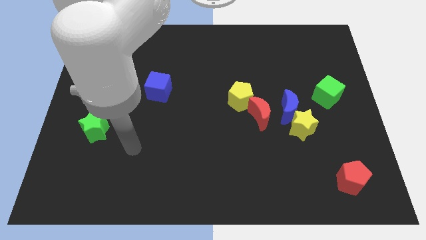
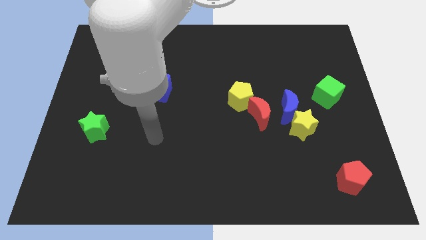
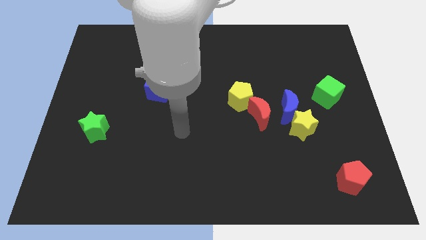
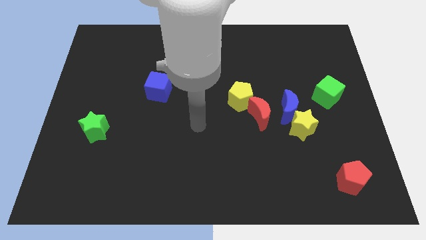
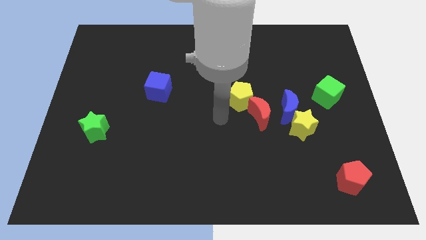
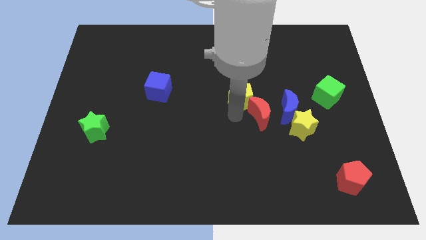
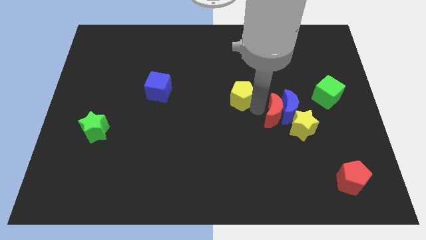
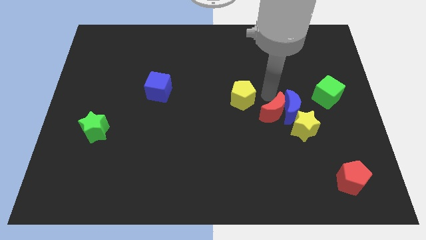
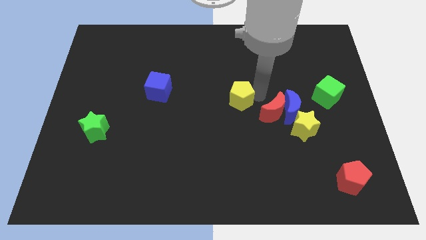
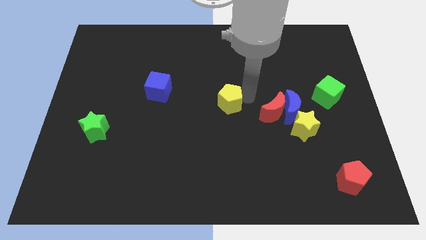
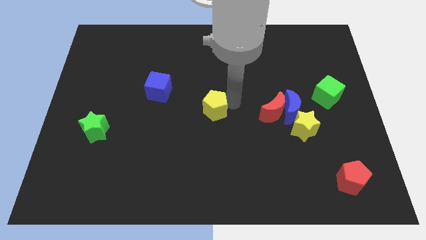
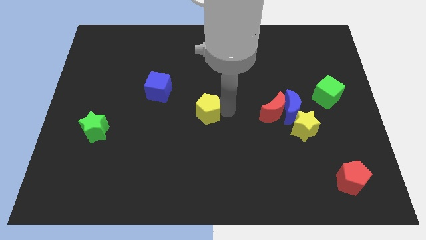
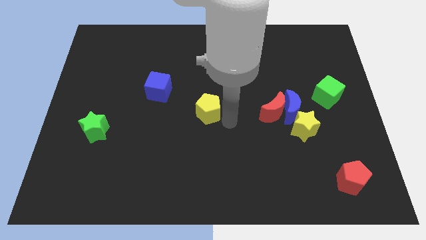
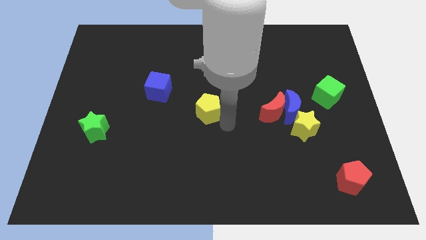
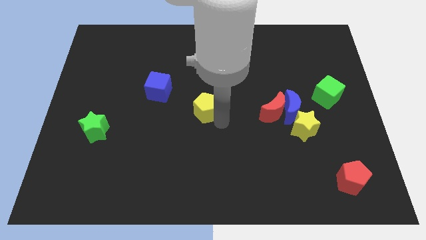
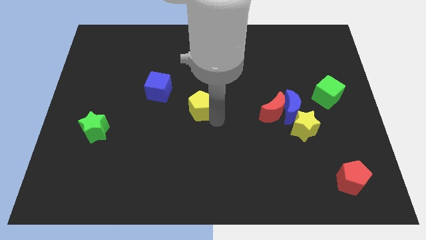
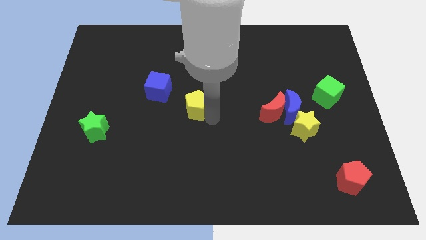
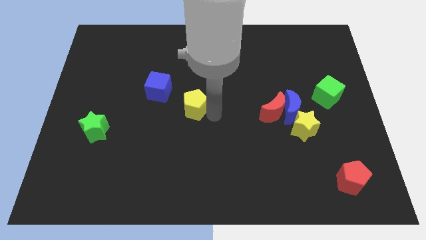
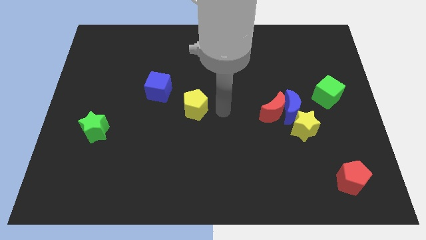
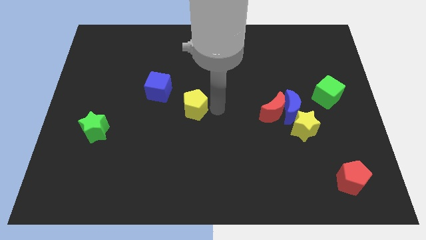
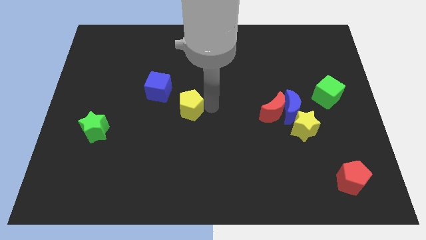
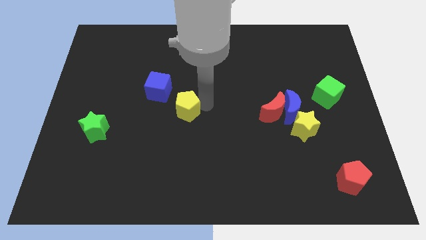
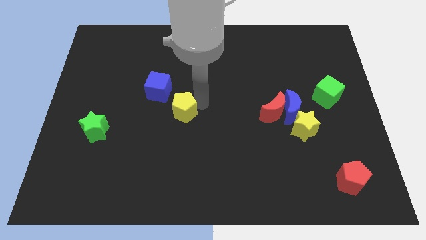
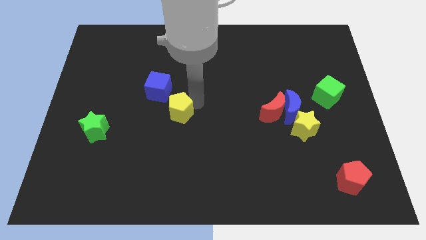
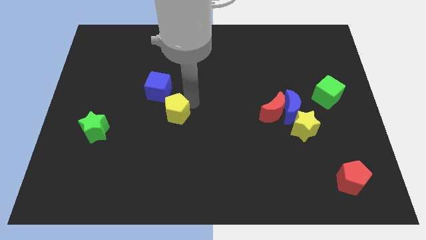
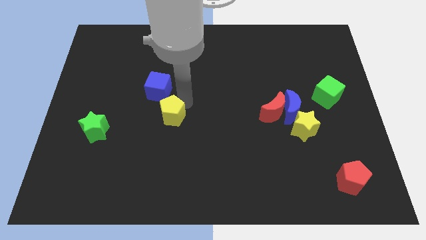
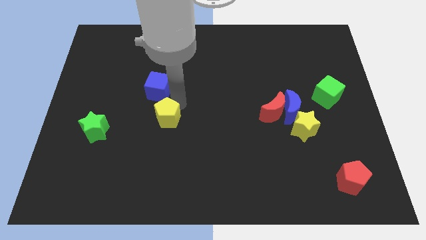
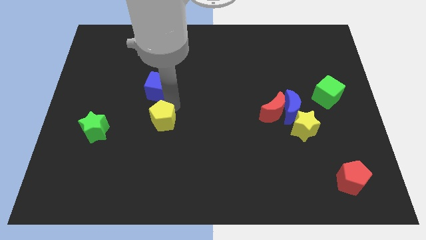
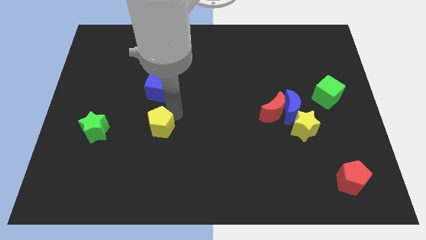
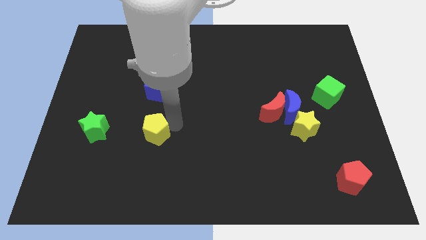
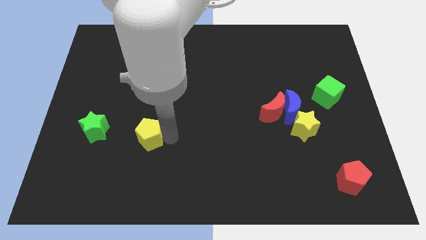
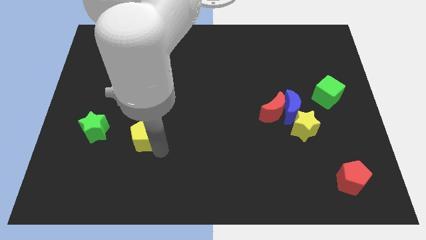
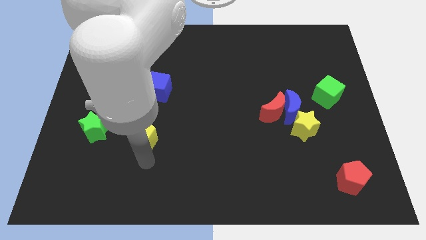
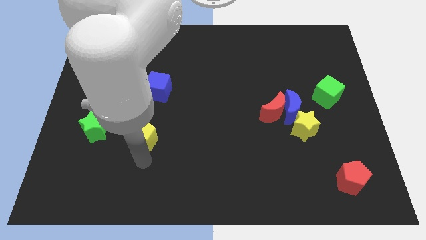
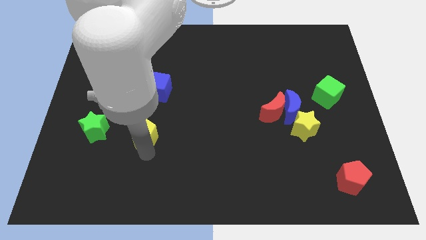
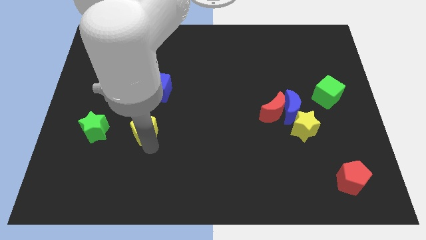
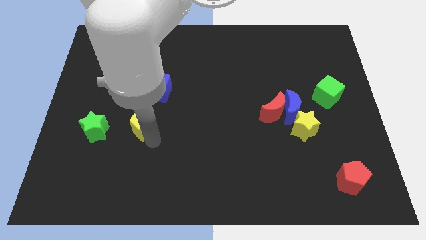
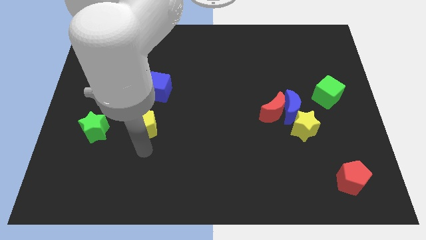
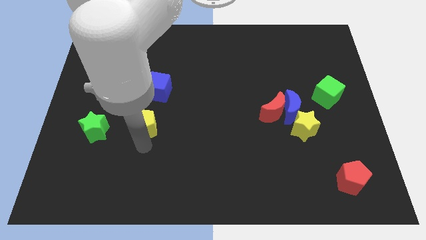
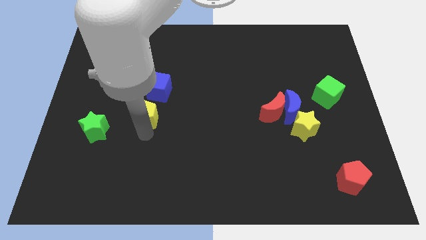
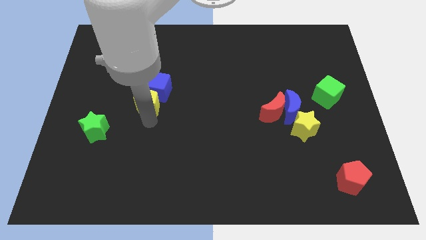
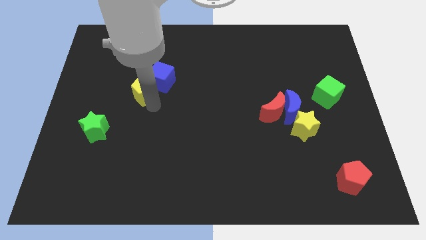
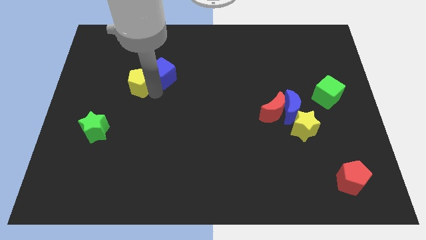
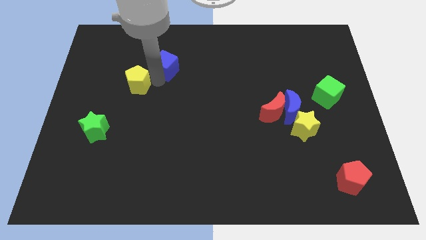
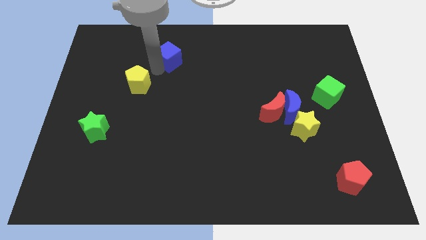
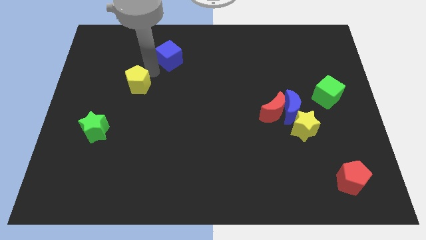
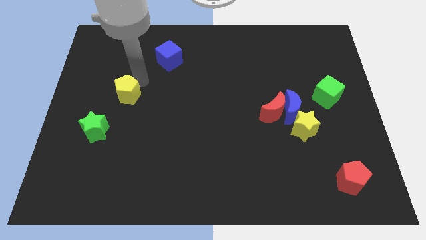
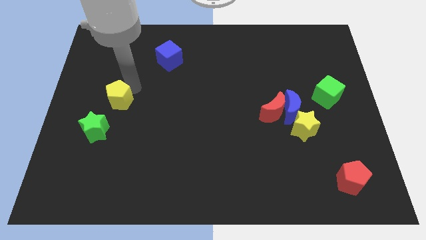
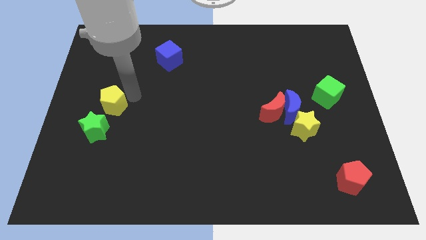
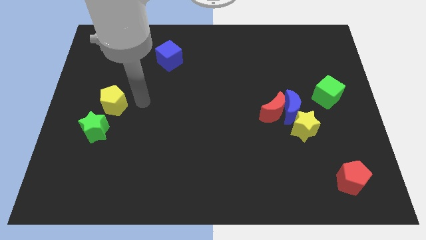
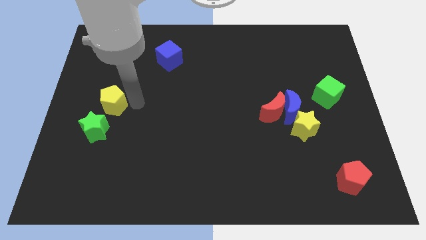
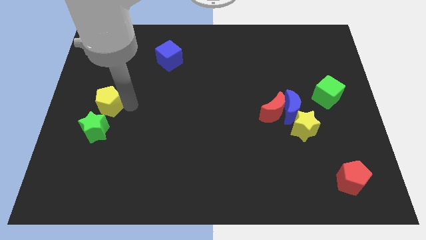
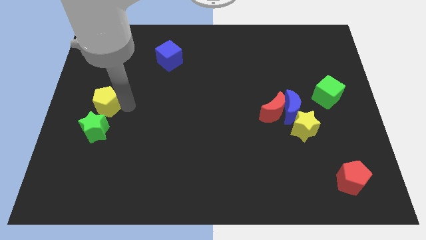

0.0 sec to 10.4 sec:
push the yellow pentagon to the center left

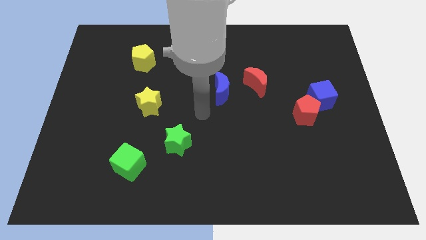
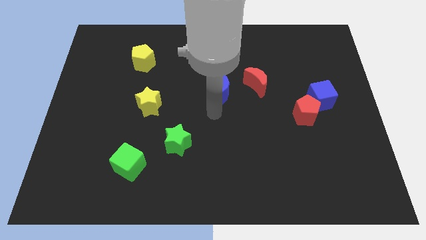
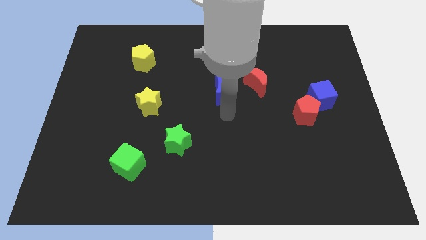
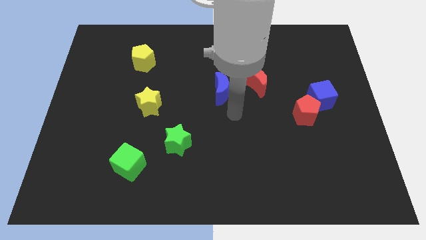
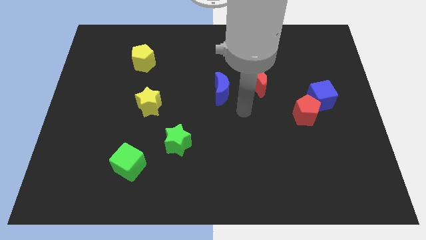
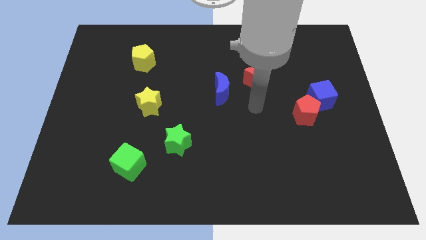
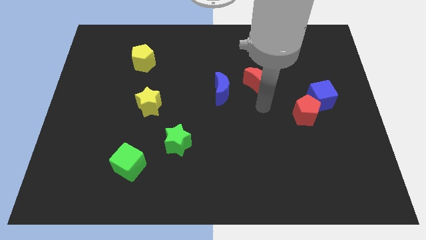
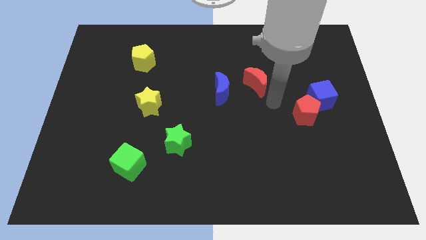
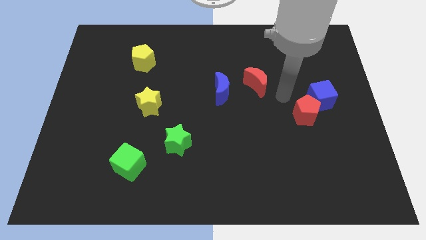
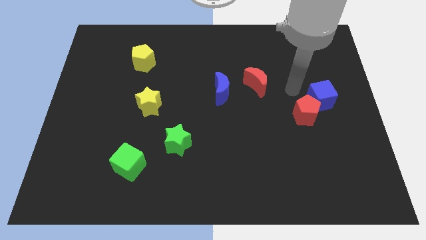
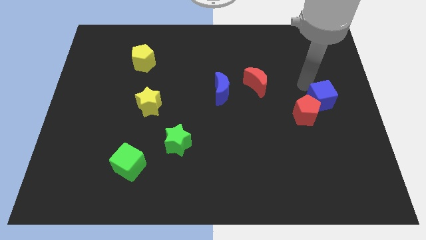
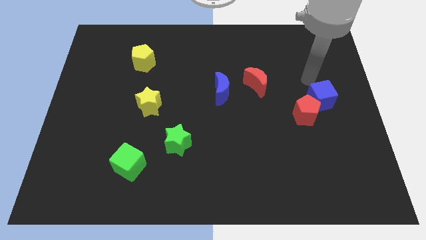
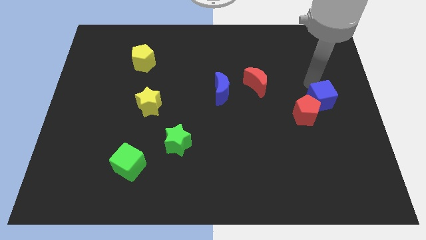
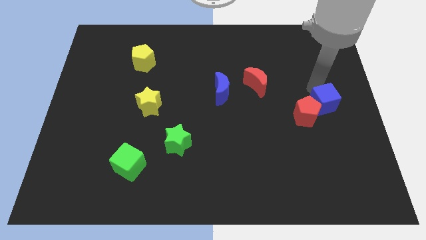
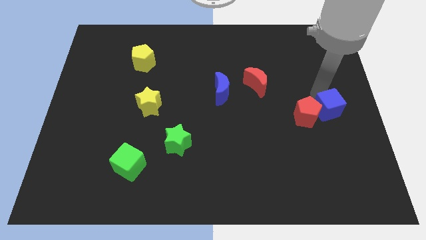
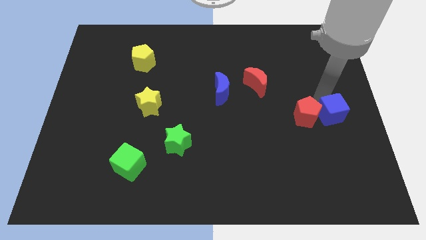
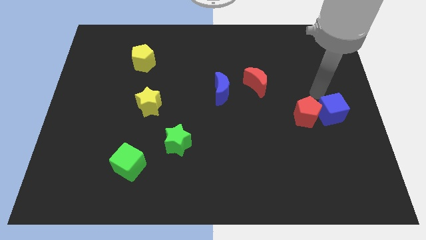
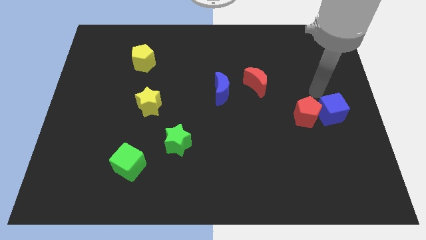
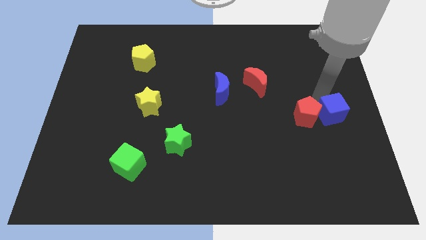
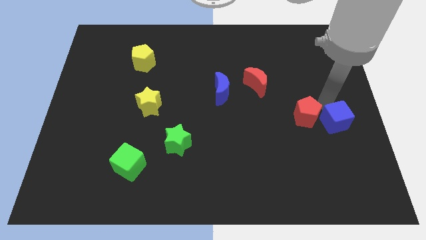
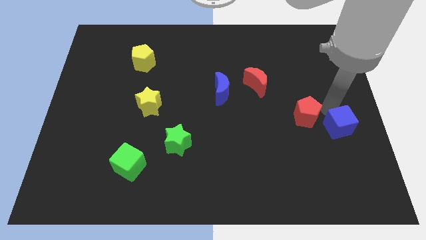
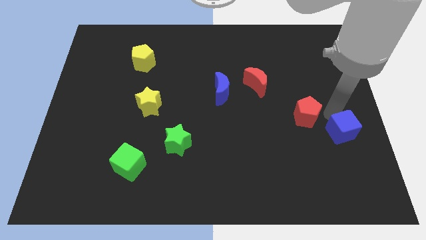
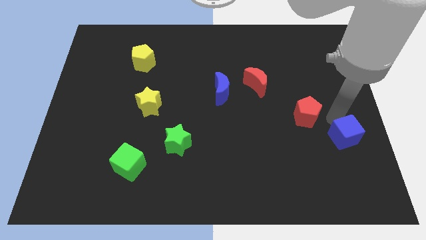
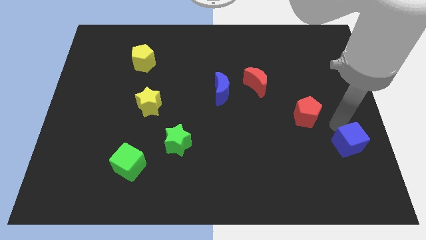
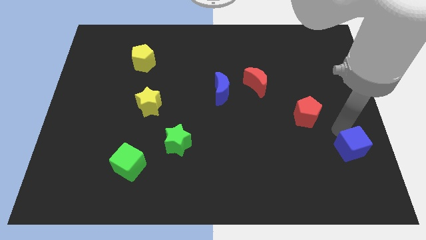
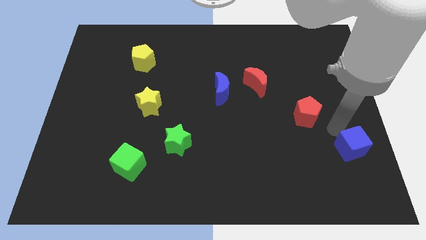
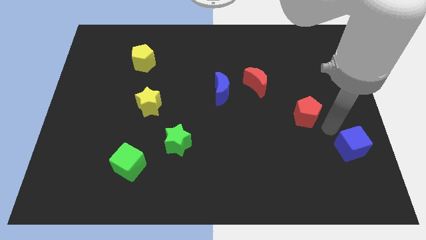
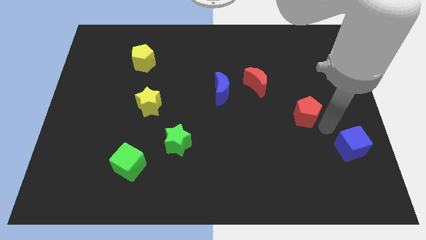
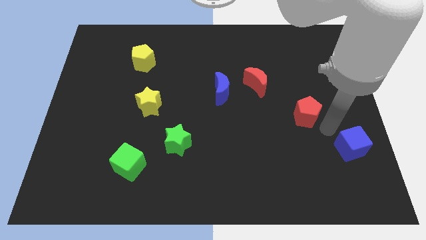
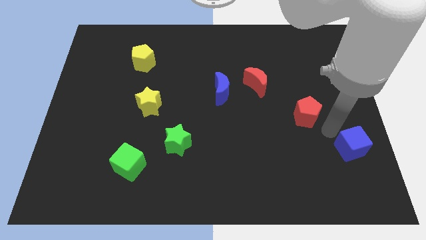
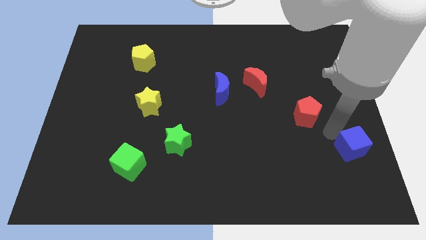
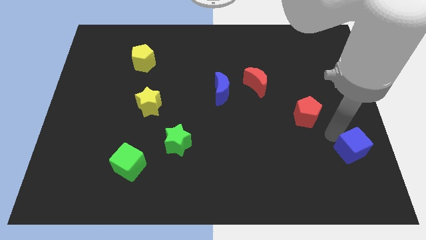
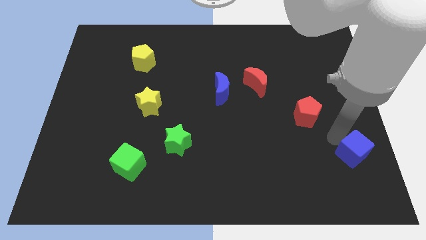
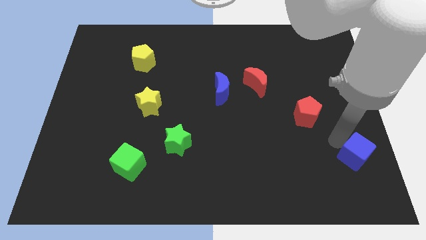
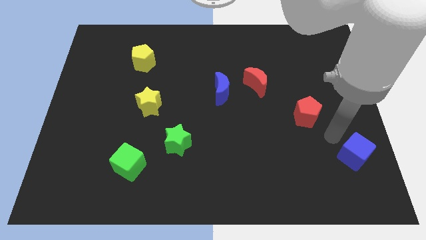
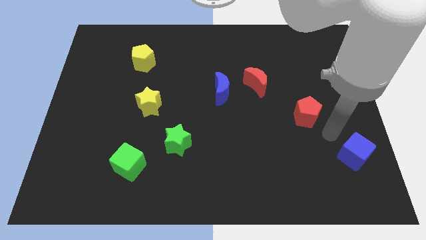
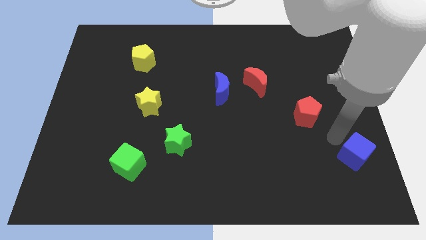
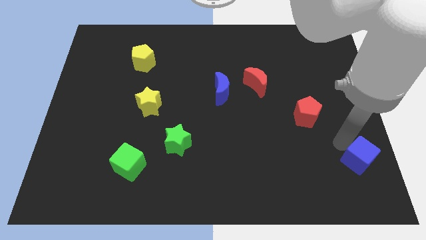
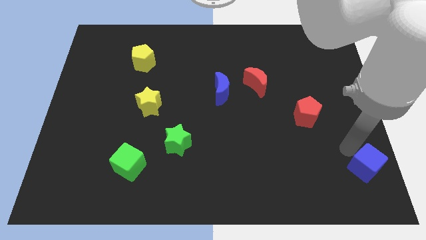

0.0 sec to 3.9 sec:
push the blue cube to the bottom right of the board
